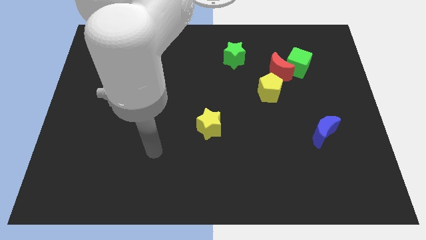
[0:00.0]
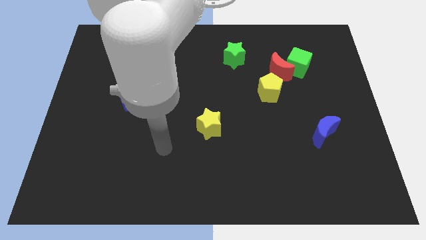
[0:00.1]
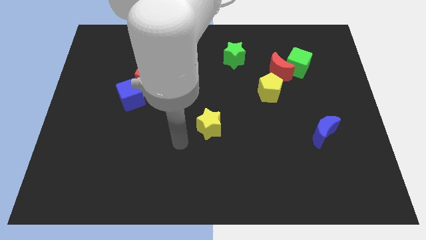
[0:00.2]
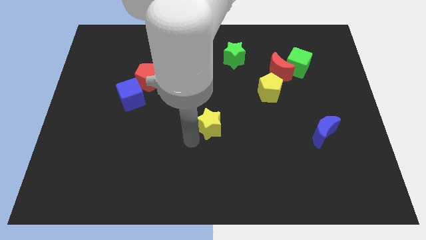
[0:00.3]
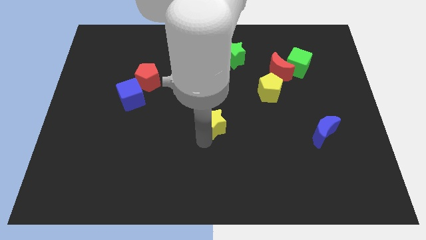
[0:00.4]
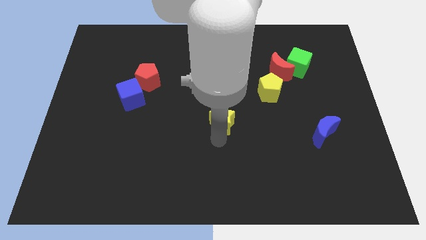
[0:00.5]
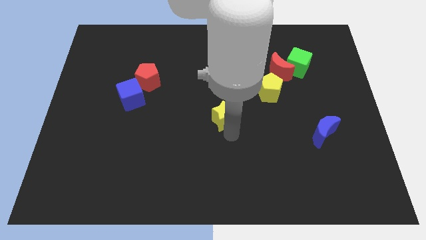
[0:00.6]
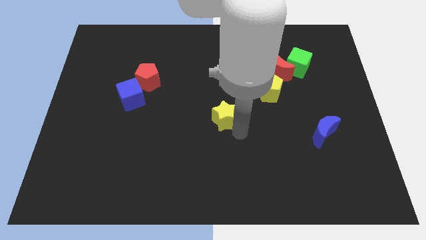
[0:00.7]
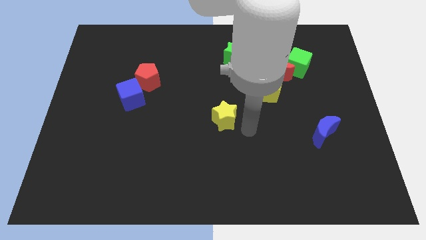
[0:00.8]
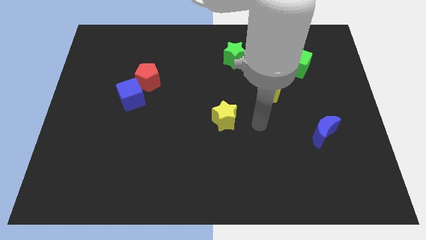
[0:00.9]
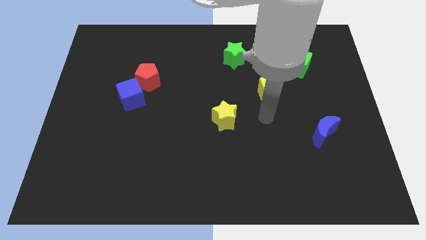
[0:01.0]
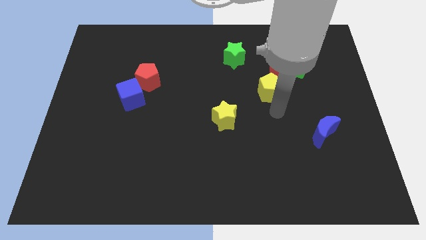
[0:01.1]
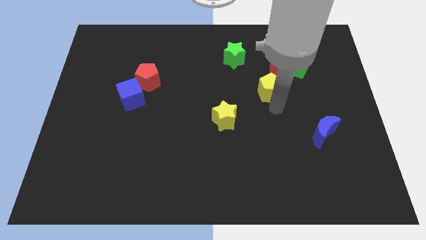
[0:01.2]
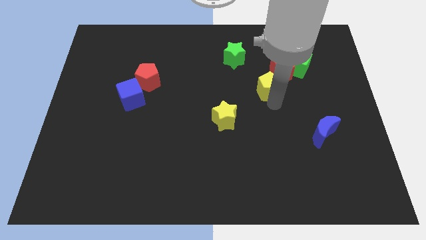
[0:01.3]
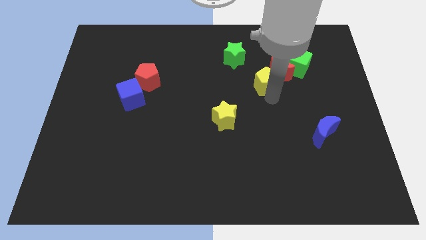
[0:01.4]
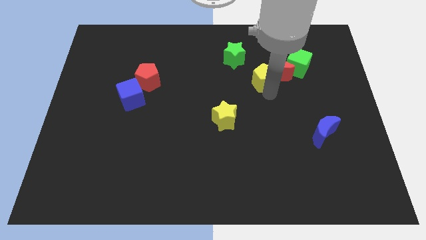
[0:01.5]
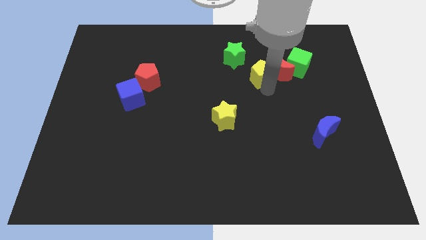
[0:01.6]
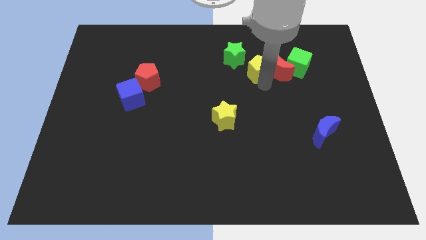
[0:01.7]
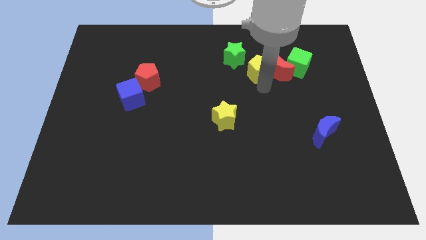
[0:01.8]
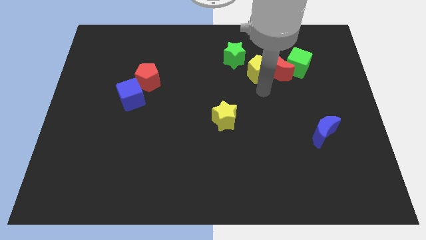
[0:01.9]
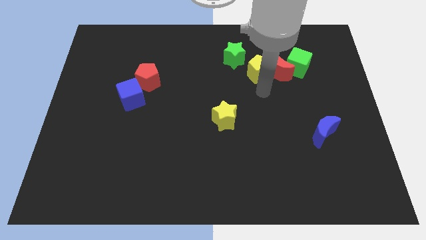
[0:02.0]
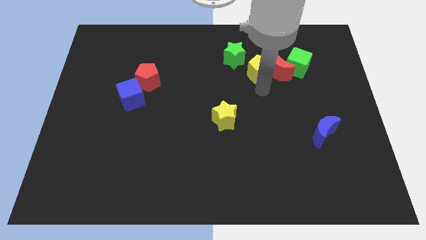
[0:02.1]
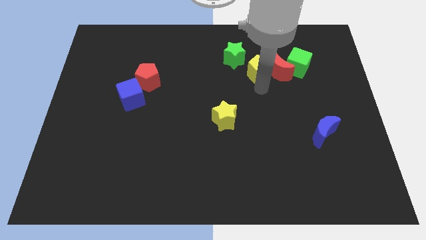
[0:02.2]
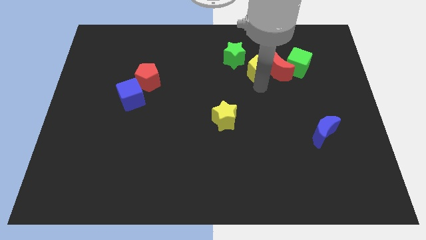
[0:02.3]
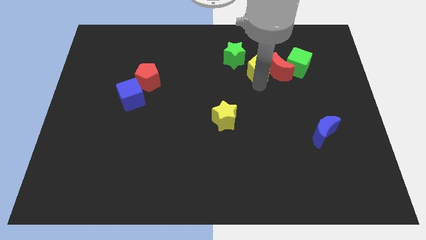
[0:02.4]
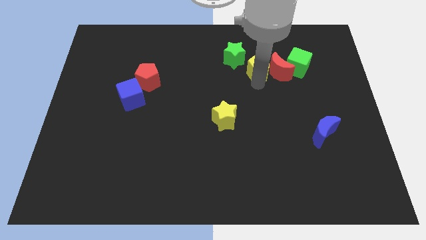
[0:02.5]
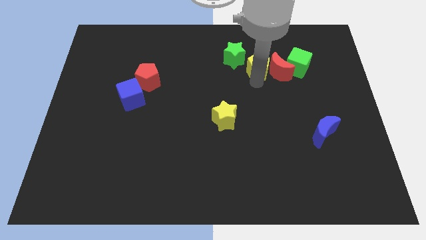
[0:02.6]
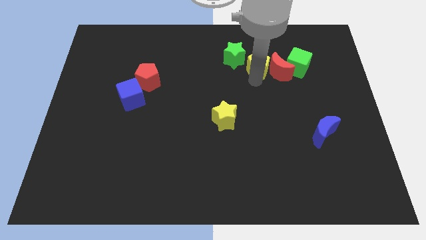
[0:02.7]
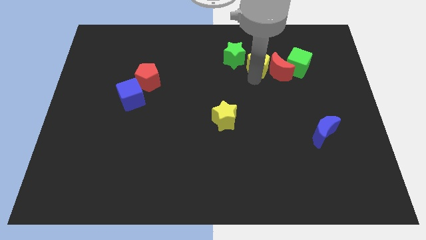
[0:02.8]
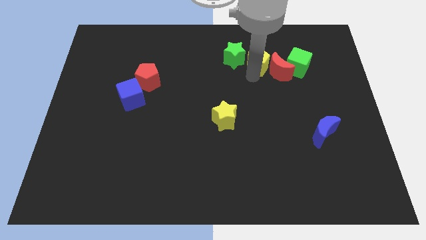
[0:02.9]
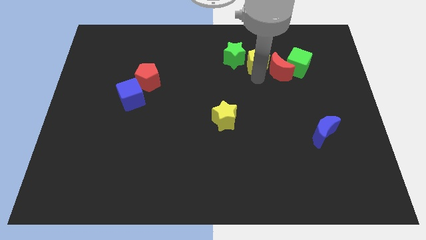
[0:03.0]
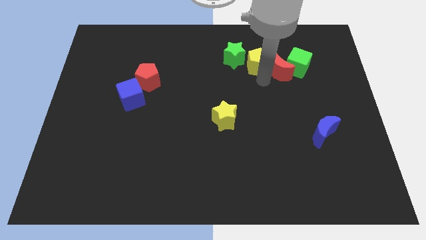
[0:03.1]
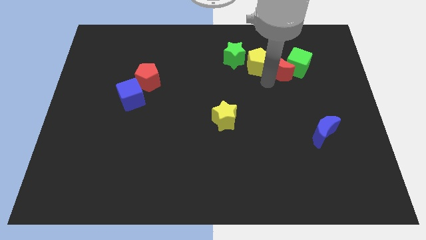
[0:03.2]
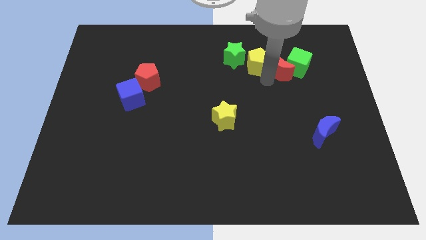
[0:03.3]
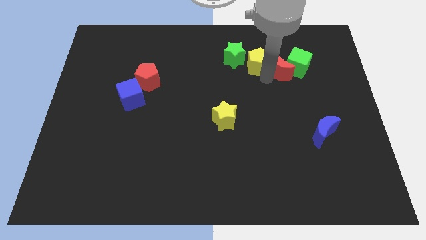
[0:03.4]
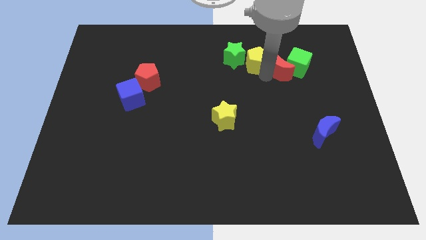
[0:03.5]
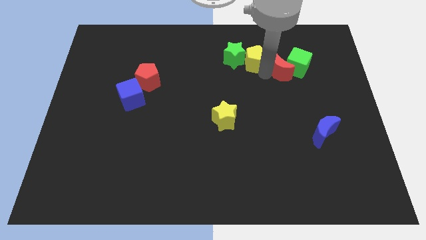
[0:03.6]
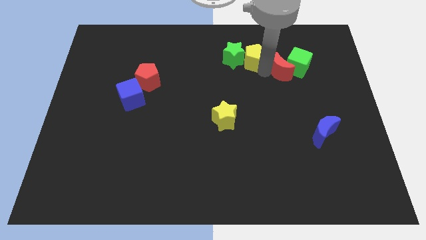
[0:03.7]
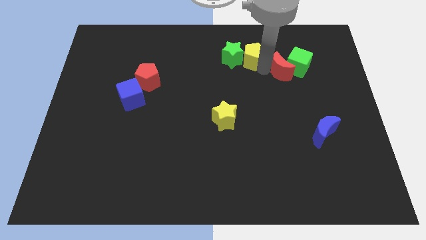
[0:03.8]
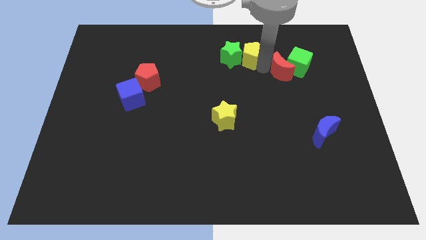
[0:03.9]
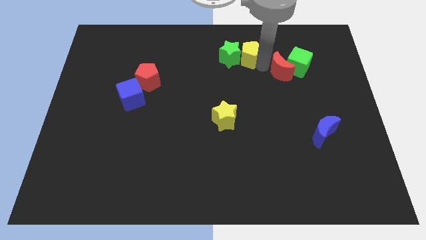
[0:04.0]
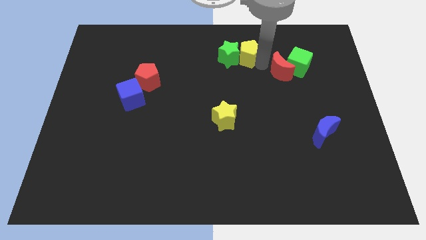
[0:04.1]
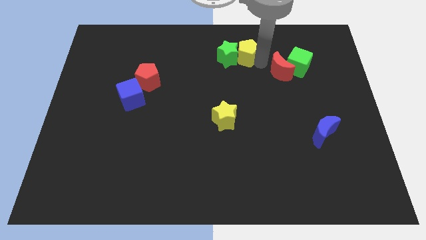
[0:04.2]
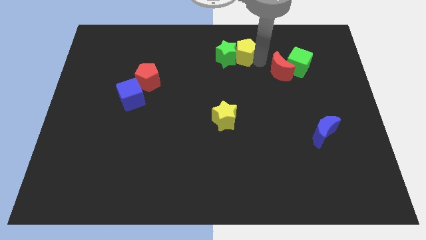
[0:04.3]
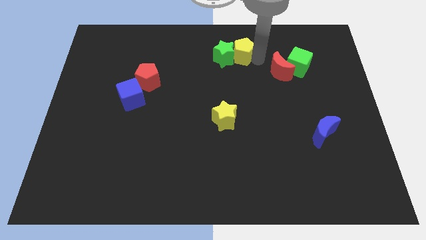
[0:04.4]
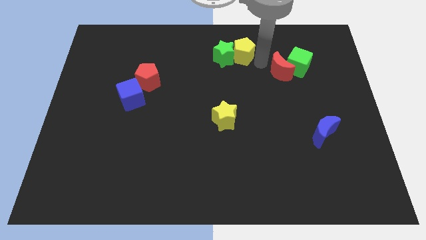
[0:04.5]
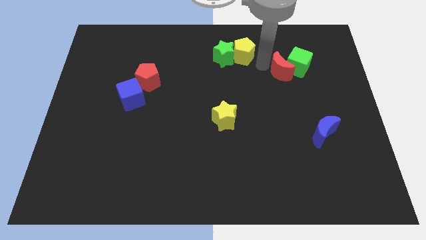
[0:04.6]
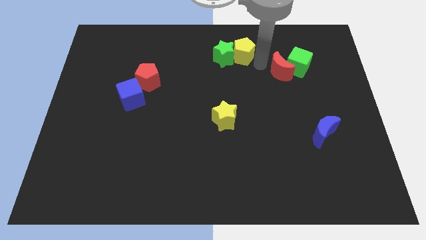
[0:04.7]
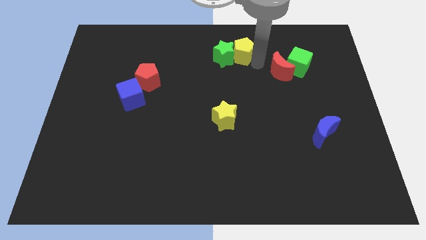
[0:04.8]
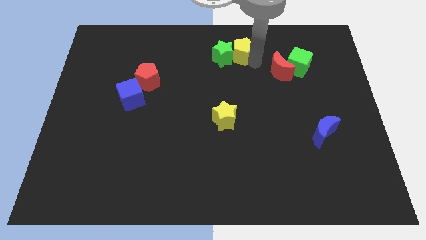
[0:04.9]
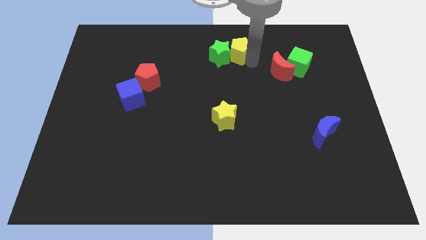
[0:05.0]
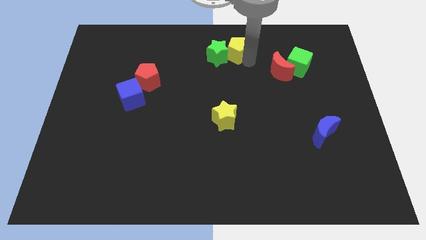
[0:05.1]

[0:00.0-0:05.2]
push the yellow pentagon to the towards your base

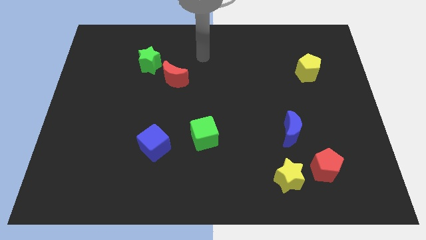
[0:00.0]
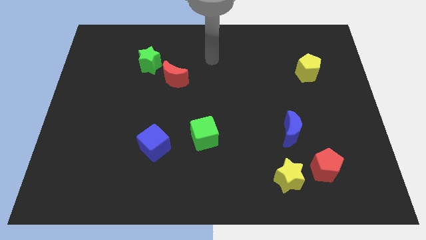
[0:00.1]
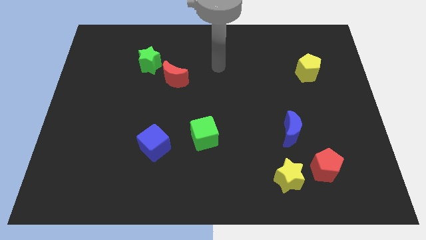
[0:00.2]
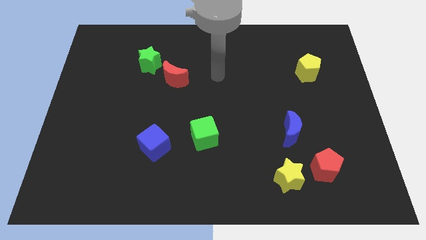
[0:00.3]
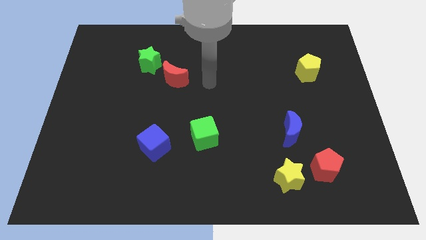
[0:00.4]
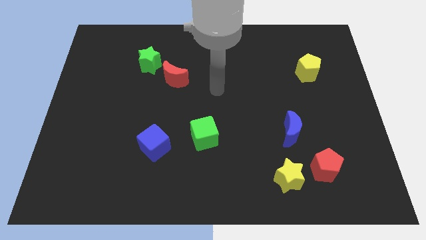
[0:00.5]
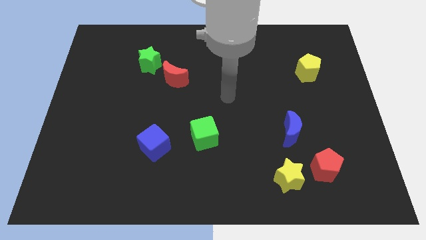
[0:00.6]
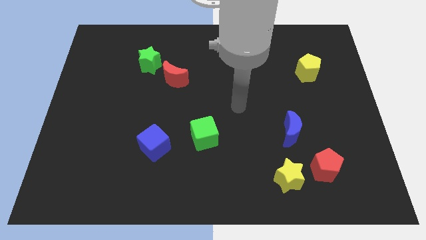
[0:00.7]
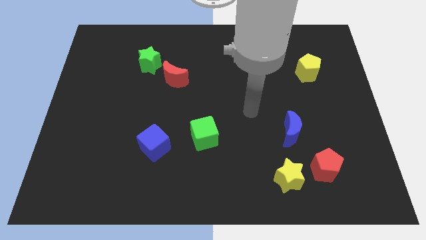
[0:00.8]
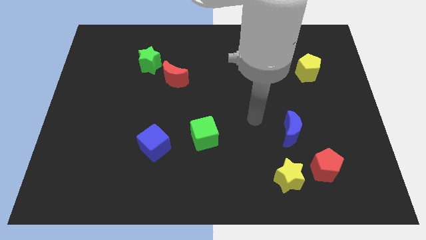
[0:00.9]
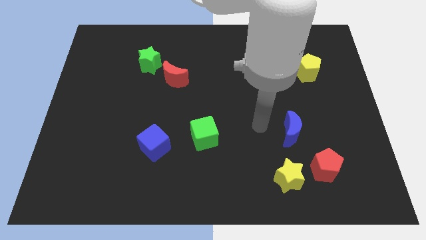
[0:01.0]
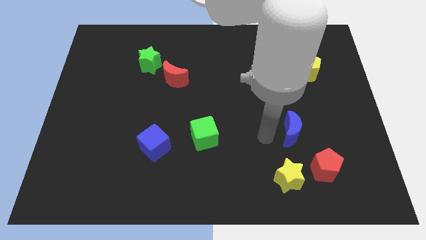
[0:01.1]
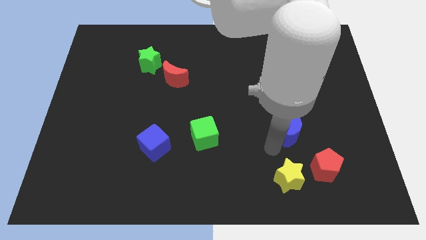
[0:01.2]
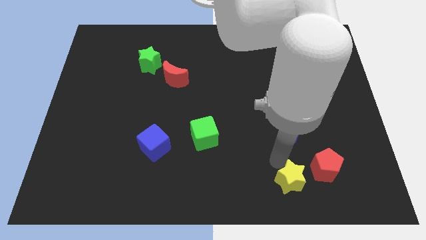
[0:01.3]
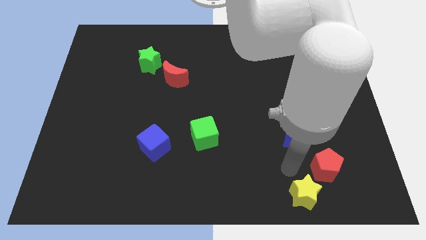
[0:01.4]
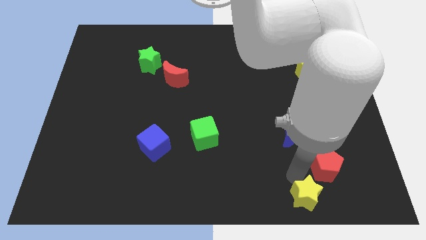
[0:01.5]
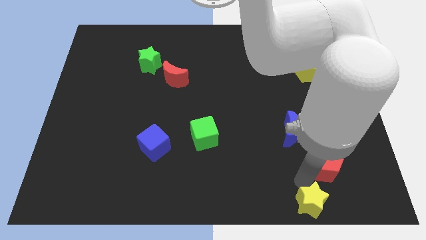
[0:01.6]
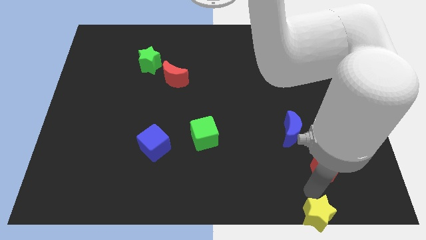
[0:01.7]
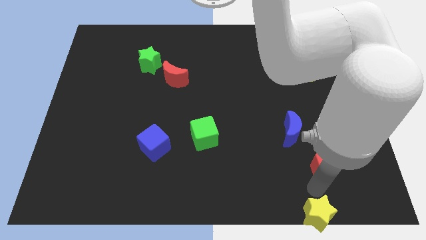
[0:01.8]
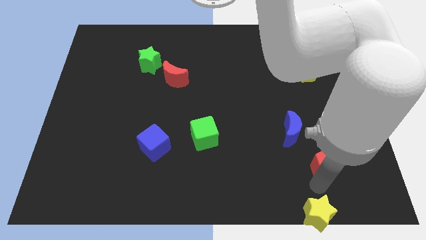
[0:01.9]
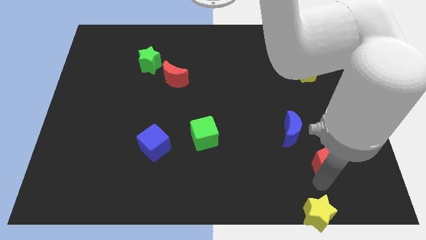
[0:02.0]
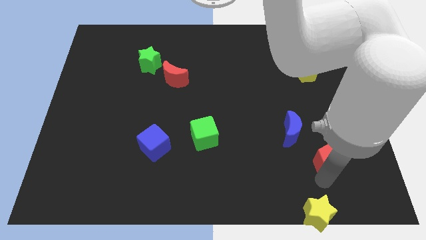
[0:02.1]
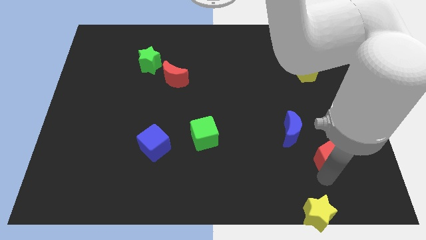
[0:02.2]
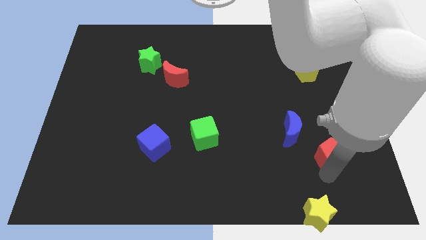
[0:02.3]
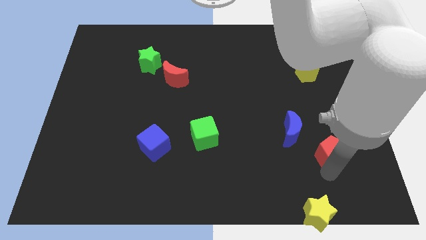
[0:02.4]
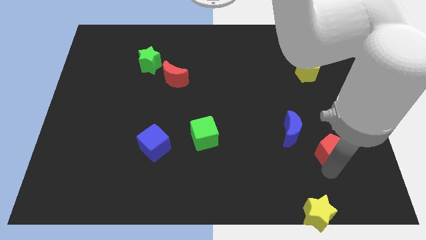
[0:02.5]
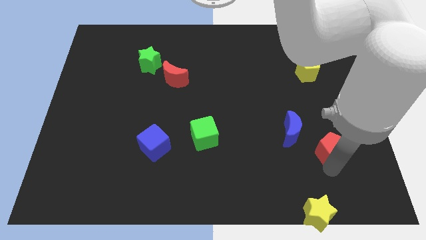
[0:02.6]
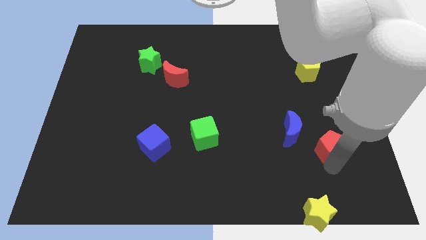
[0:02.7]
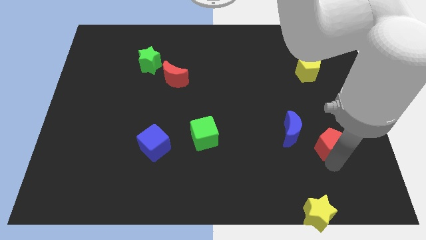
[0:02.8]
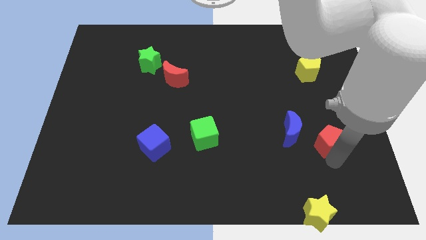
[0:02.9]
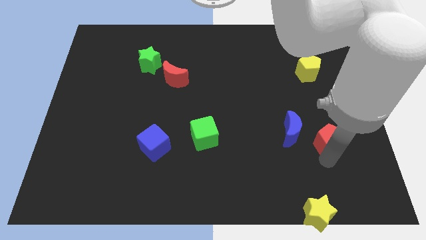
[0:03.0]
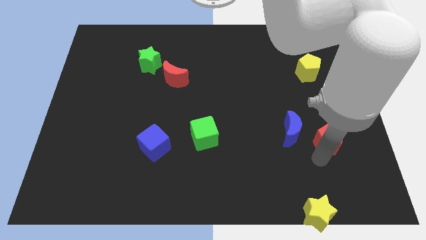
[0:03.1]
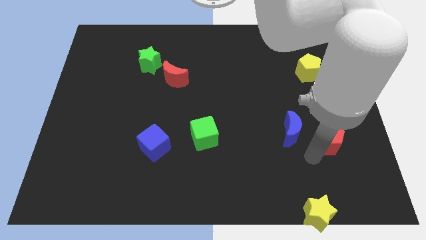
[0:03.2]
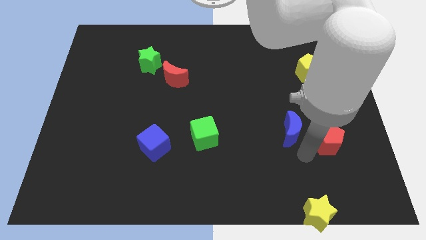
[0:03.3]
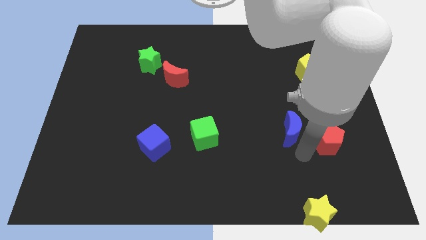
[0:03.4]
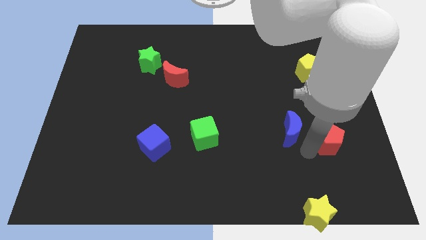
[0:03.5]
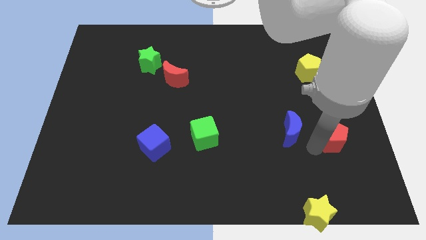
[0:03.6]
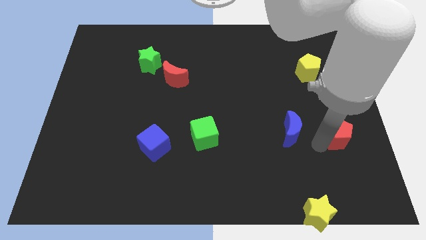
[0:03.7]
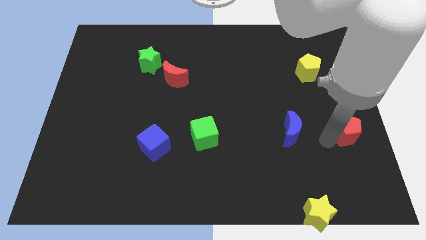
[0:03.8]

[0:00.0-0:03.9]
move the red pentagon to the center right
